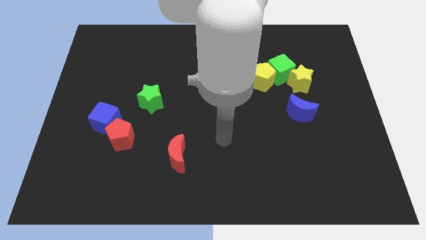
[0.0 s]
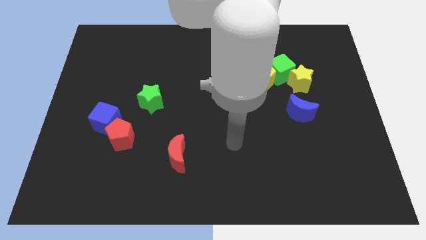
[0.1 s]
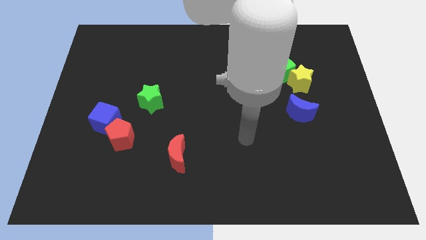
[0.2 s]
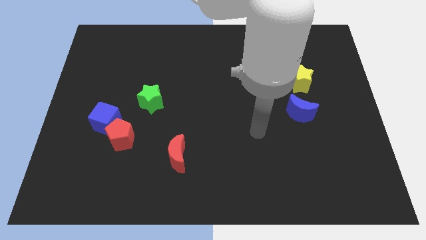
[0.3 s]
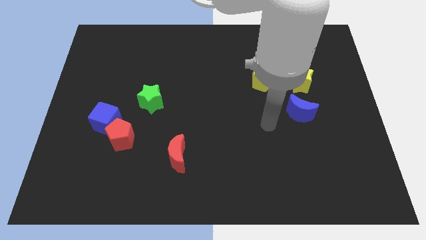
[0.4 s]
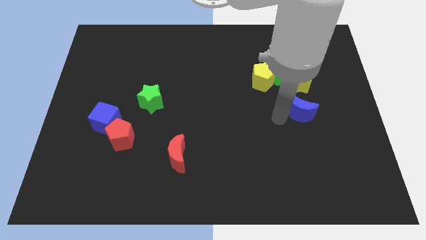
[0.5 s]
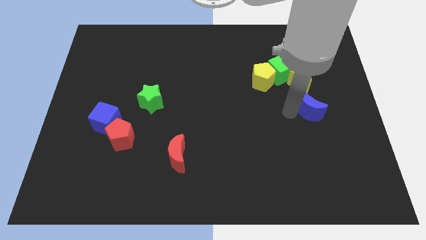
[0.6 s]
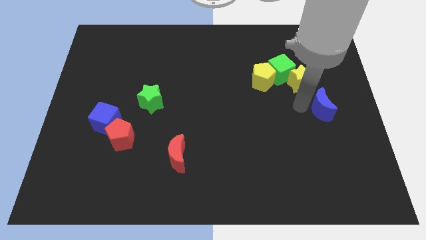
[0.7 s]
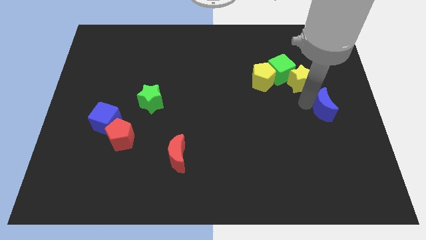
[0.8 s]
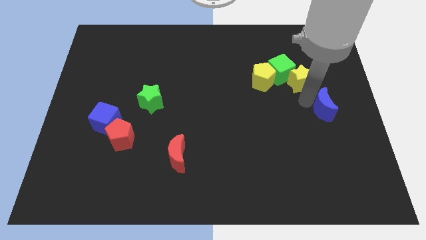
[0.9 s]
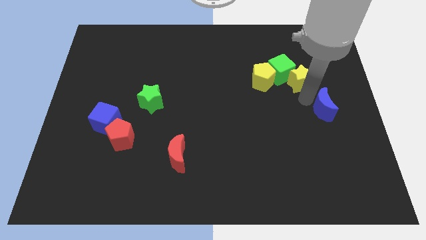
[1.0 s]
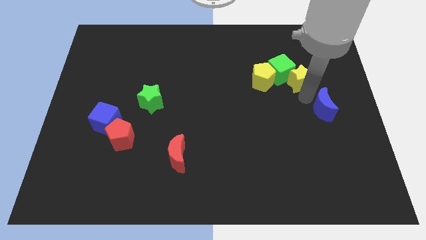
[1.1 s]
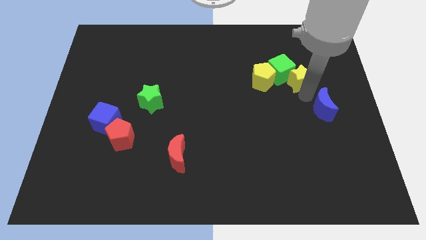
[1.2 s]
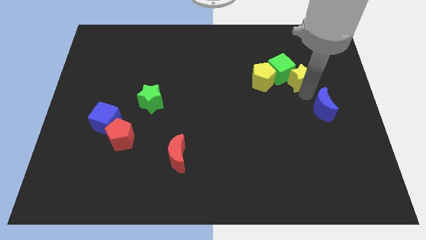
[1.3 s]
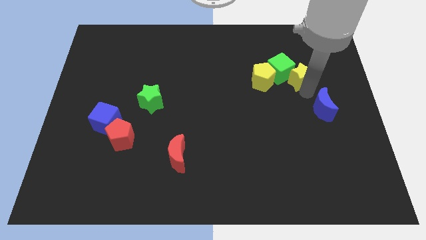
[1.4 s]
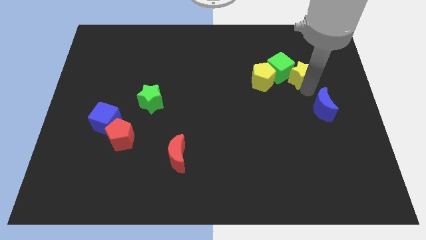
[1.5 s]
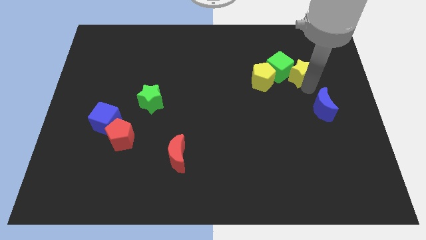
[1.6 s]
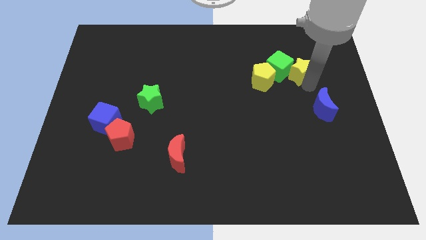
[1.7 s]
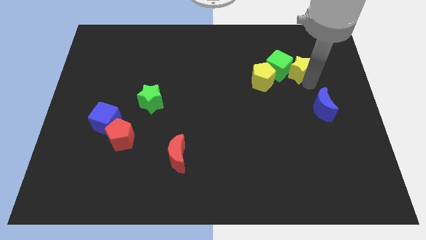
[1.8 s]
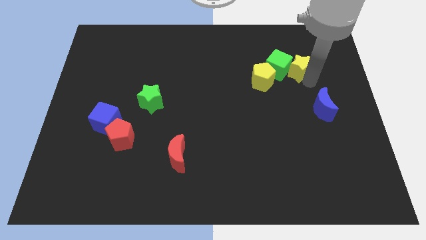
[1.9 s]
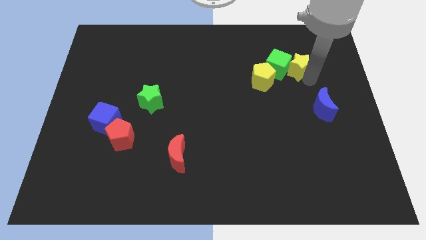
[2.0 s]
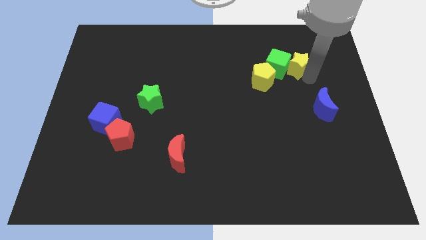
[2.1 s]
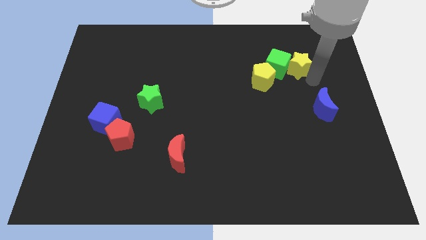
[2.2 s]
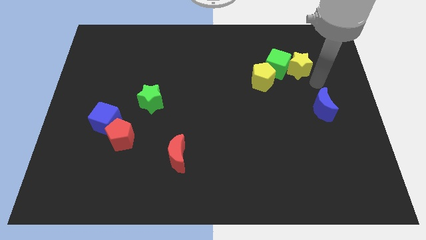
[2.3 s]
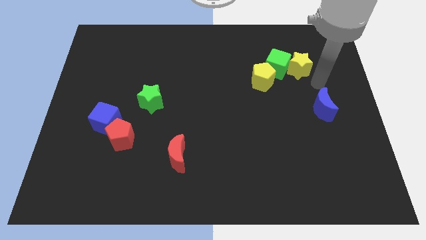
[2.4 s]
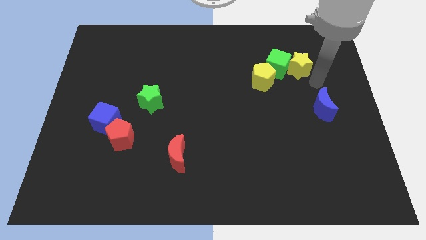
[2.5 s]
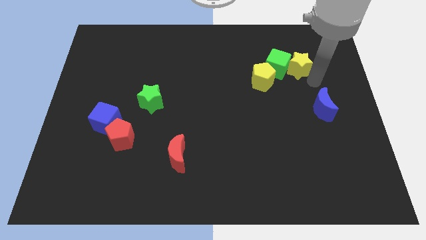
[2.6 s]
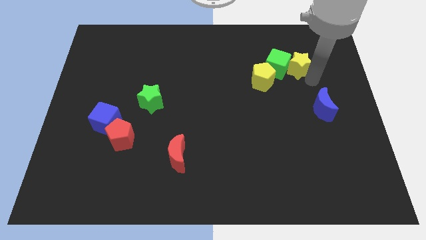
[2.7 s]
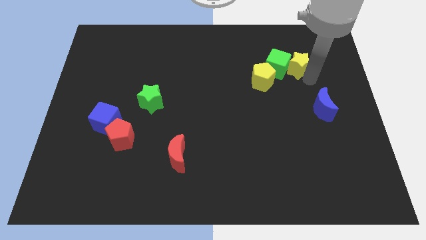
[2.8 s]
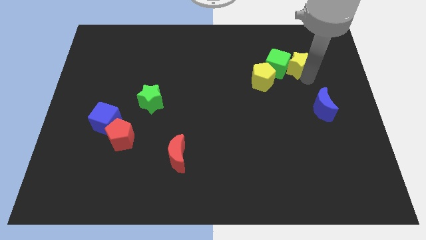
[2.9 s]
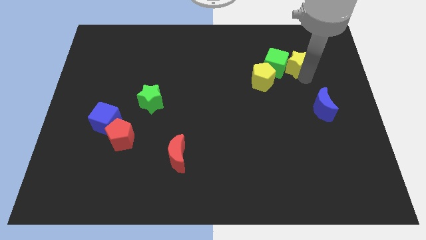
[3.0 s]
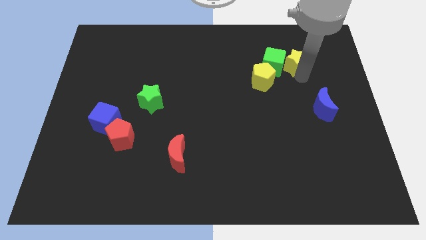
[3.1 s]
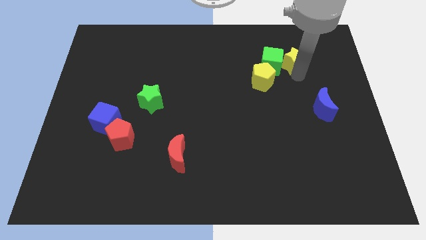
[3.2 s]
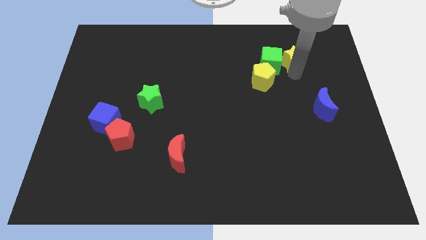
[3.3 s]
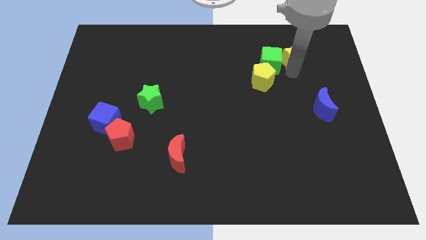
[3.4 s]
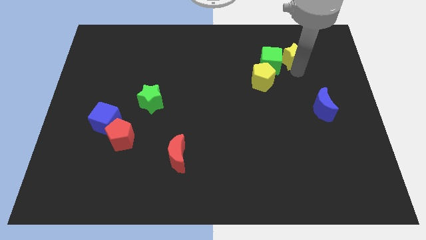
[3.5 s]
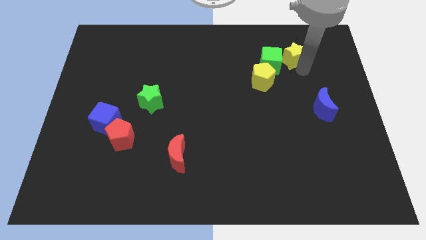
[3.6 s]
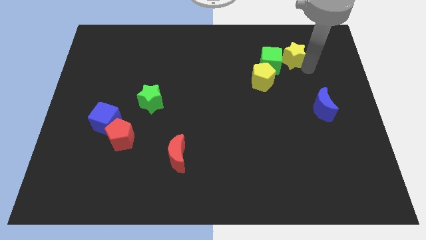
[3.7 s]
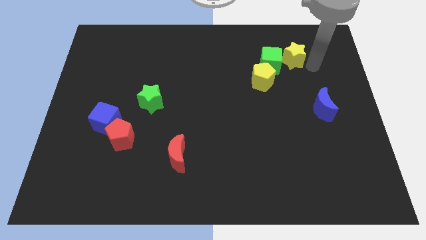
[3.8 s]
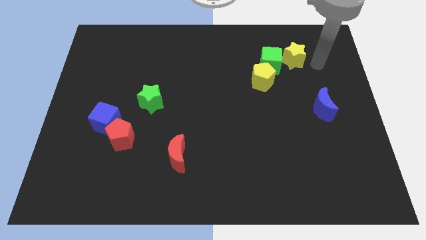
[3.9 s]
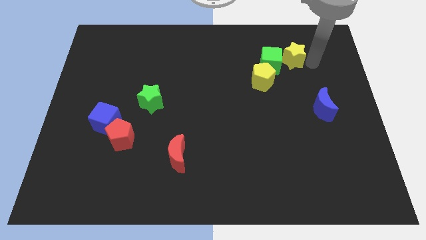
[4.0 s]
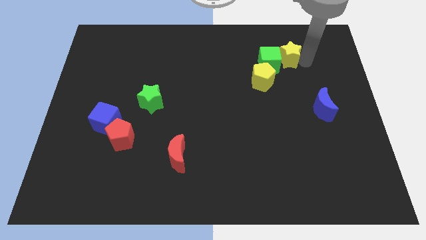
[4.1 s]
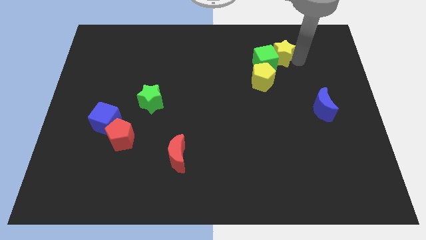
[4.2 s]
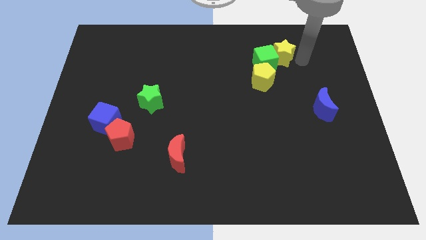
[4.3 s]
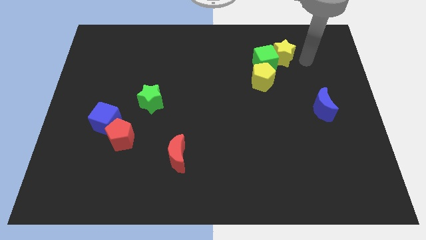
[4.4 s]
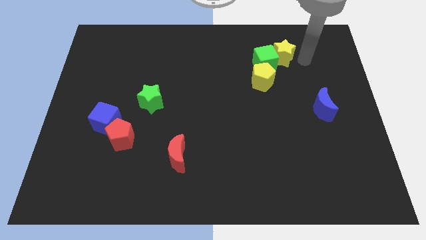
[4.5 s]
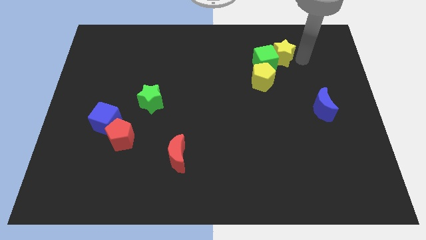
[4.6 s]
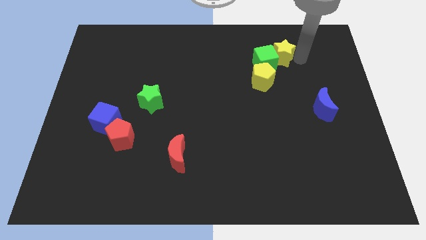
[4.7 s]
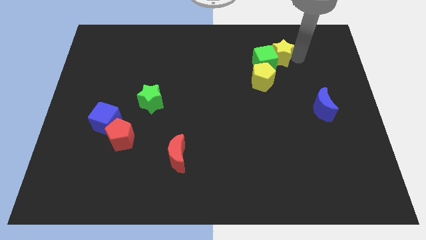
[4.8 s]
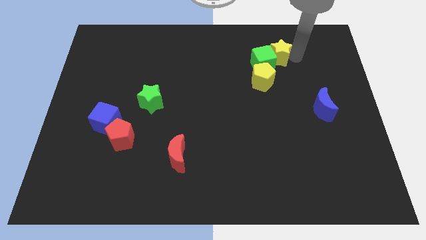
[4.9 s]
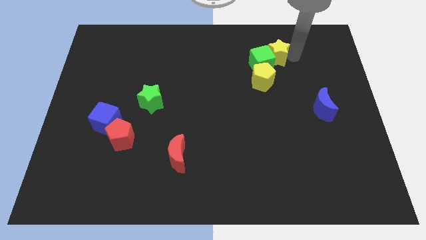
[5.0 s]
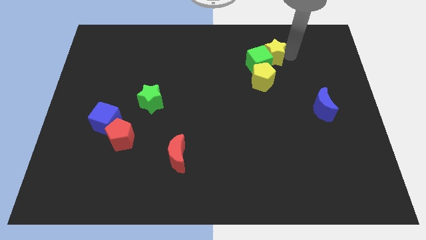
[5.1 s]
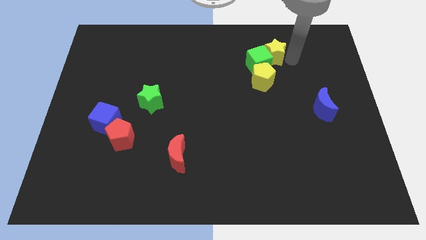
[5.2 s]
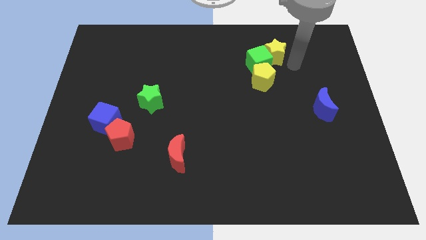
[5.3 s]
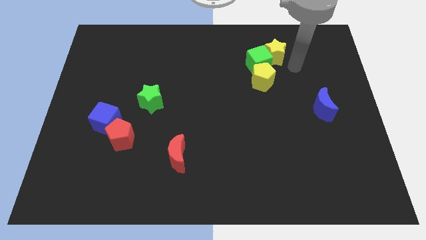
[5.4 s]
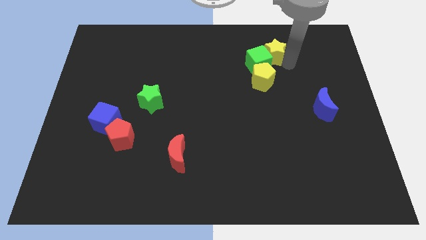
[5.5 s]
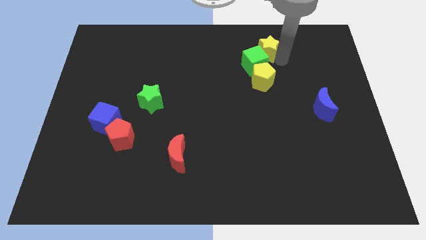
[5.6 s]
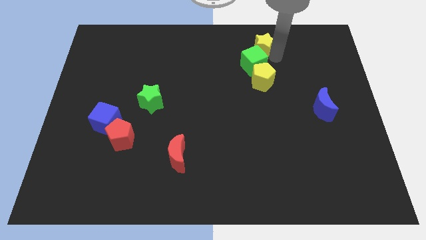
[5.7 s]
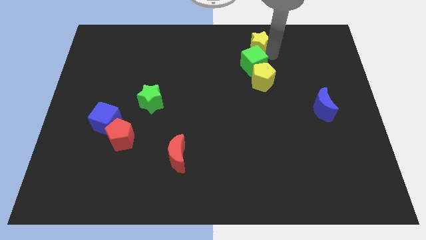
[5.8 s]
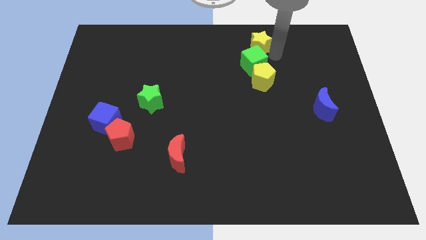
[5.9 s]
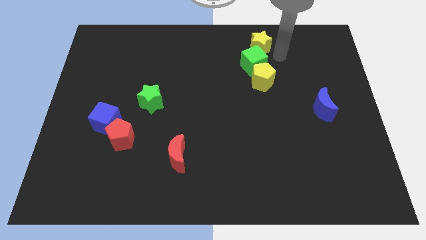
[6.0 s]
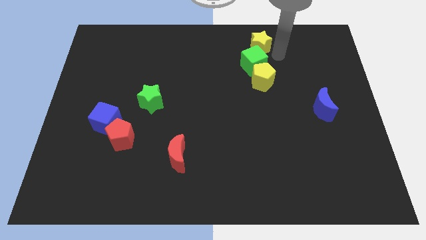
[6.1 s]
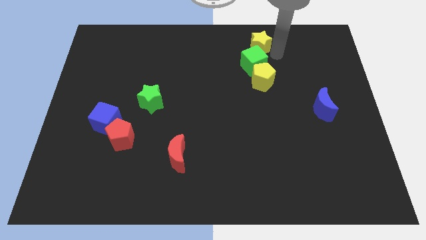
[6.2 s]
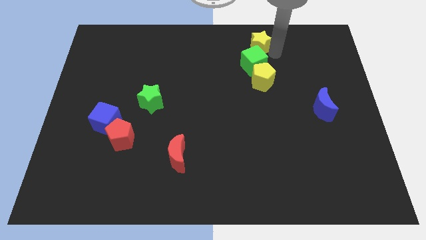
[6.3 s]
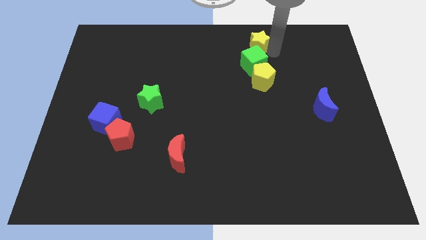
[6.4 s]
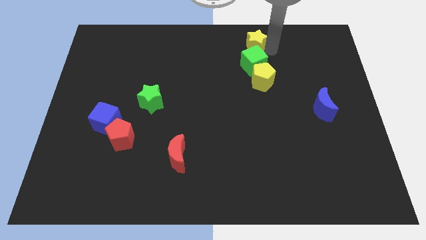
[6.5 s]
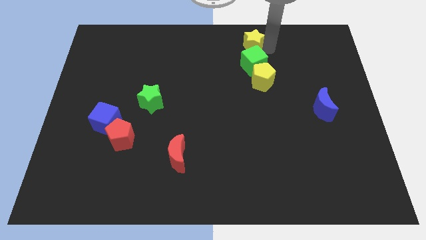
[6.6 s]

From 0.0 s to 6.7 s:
put the yellow star to the towards your base
